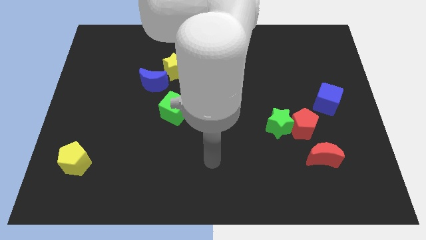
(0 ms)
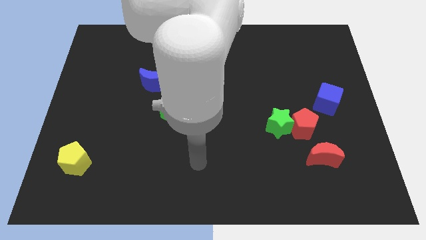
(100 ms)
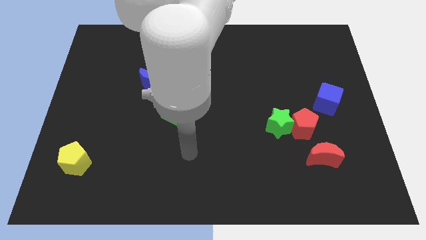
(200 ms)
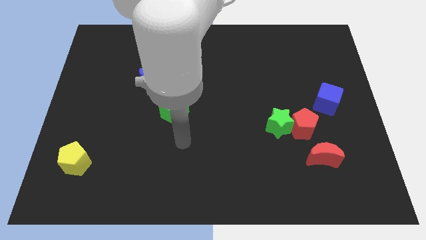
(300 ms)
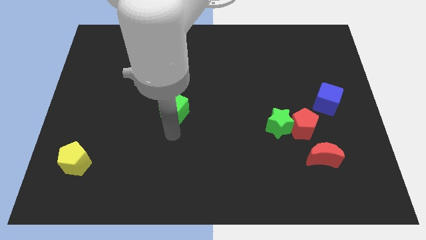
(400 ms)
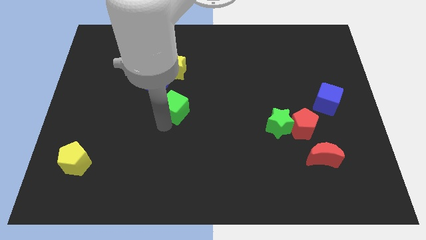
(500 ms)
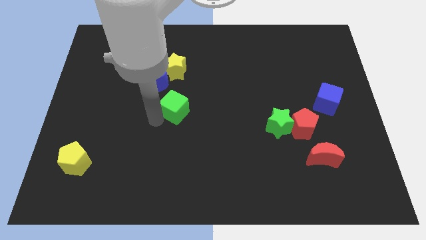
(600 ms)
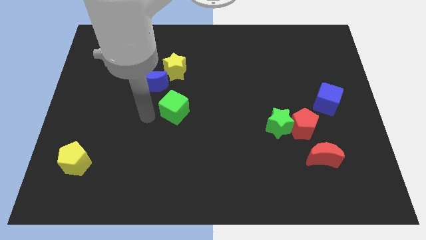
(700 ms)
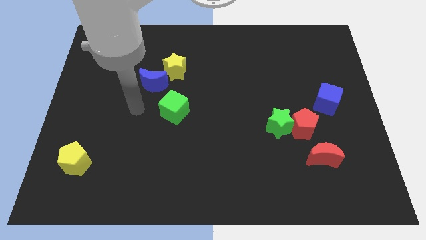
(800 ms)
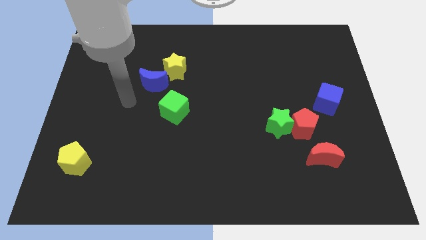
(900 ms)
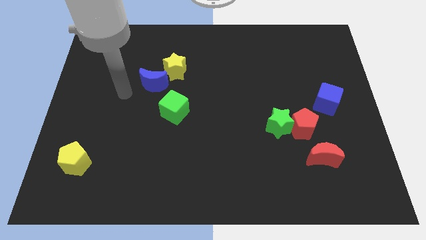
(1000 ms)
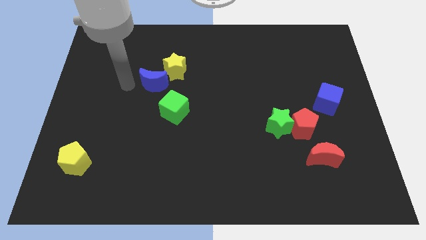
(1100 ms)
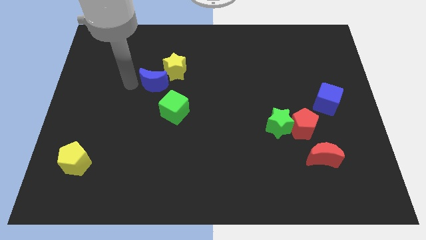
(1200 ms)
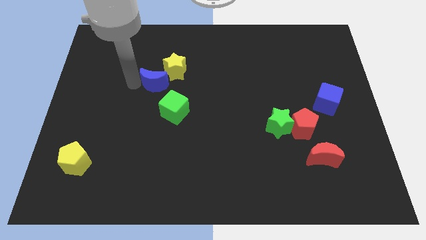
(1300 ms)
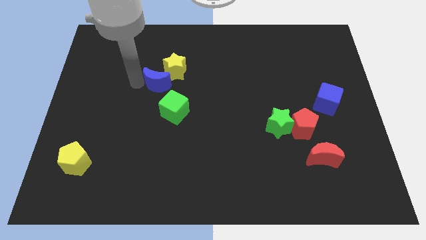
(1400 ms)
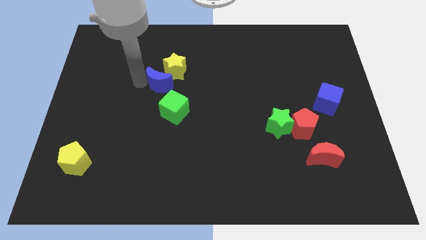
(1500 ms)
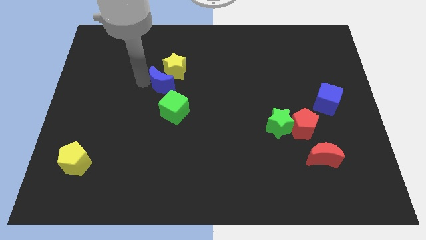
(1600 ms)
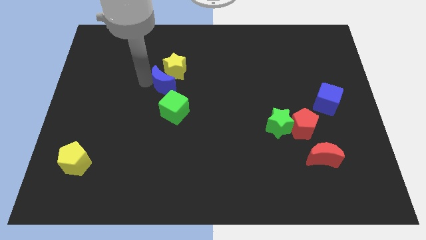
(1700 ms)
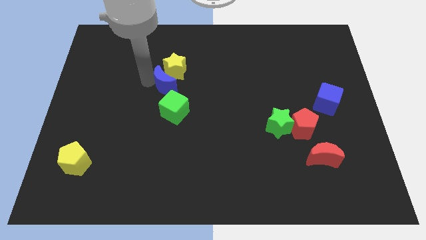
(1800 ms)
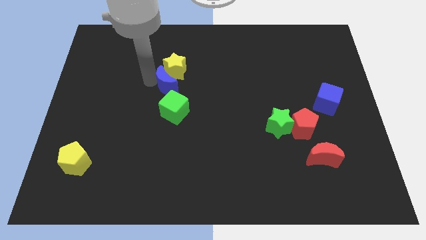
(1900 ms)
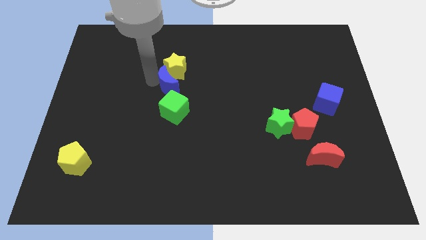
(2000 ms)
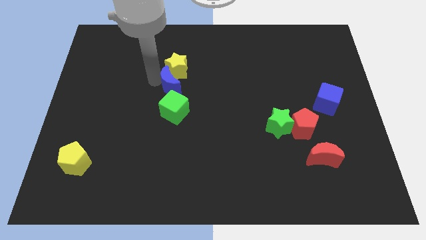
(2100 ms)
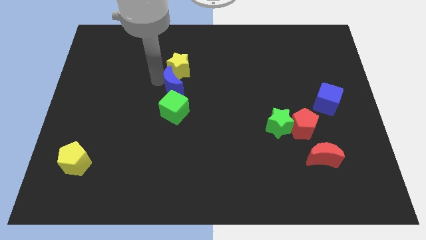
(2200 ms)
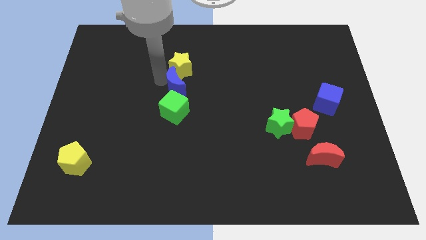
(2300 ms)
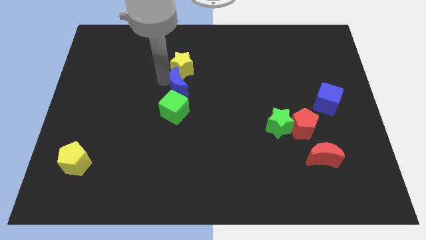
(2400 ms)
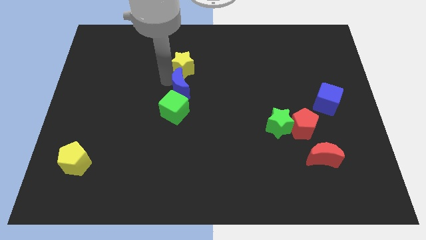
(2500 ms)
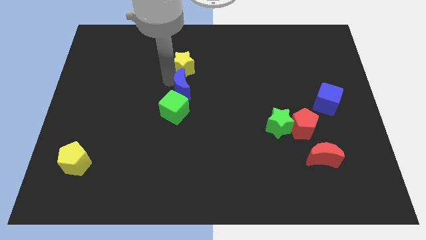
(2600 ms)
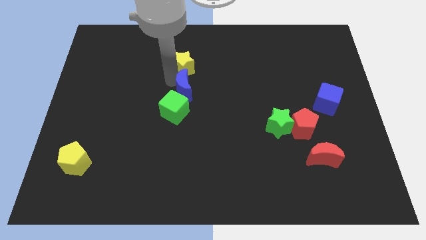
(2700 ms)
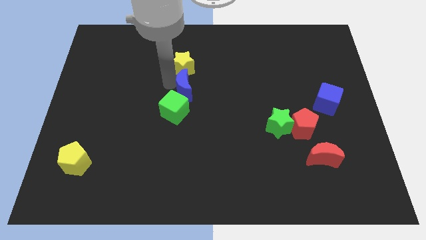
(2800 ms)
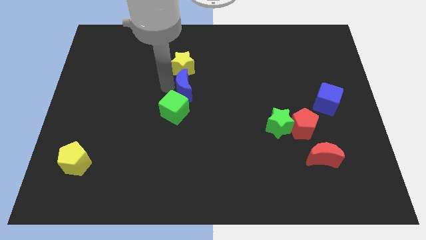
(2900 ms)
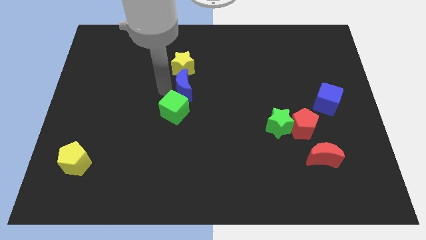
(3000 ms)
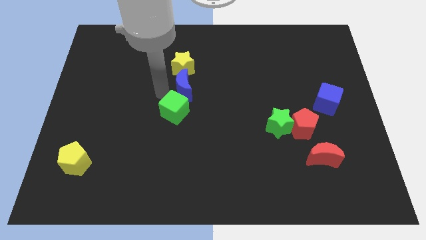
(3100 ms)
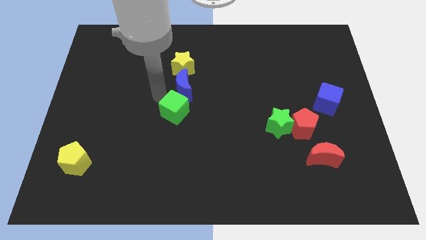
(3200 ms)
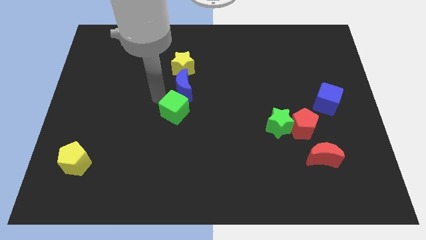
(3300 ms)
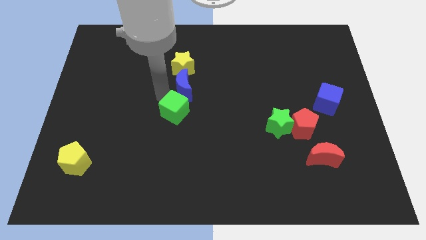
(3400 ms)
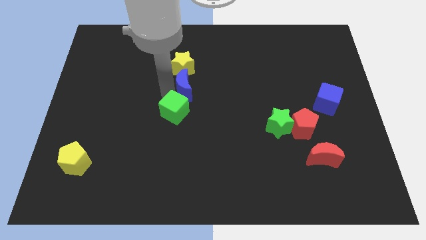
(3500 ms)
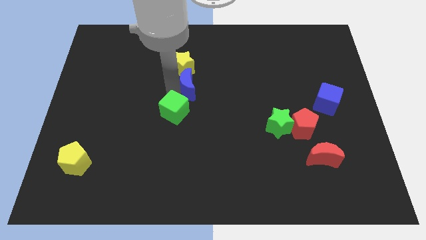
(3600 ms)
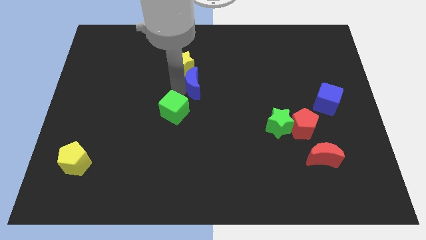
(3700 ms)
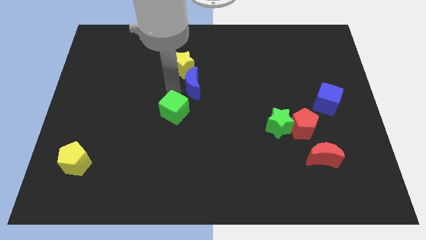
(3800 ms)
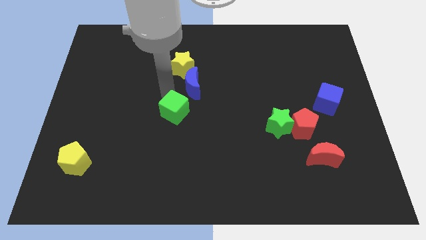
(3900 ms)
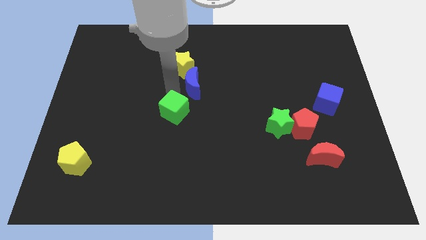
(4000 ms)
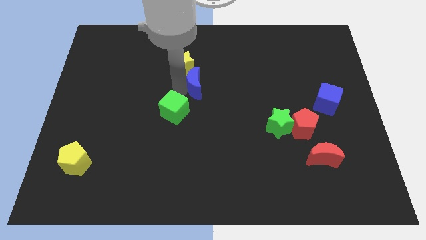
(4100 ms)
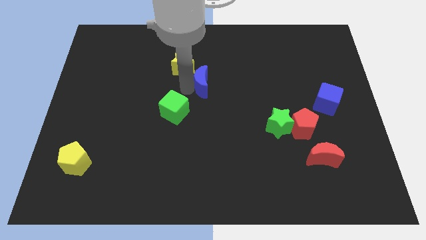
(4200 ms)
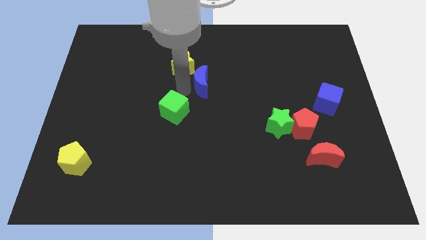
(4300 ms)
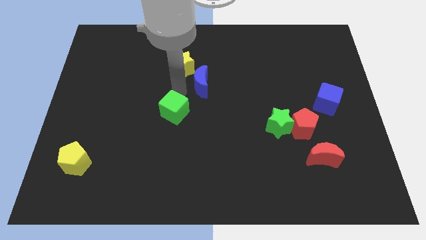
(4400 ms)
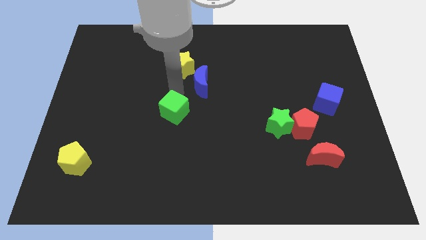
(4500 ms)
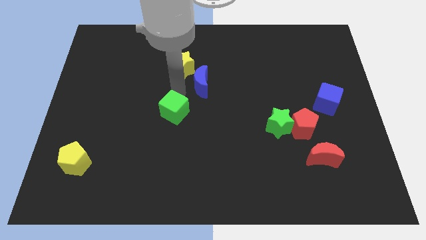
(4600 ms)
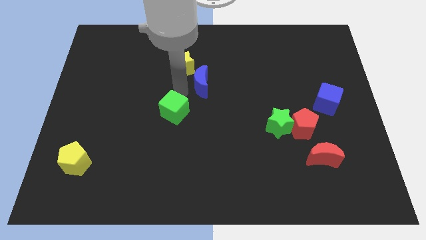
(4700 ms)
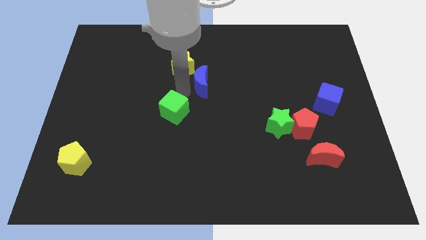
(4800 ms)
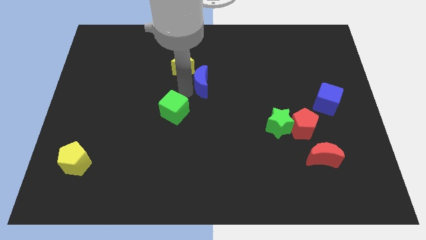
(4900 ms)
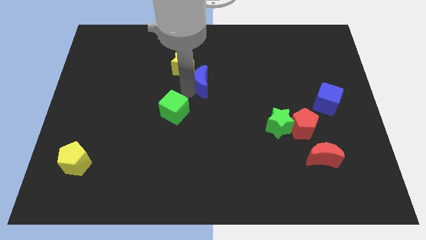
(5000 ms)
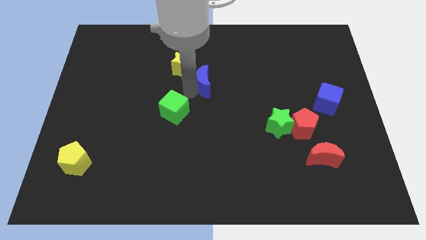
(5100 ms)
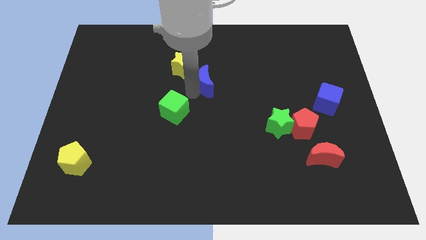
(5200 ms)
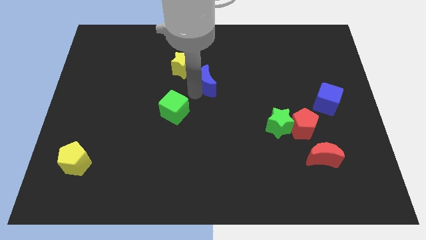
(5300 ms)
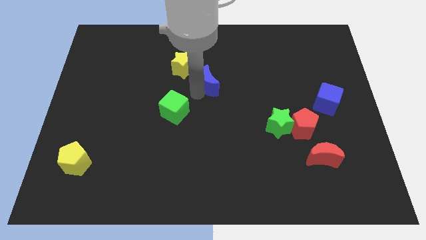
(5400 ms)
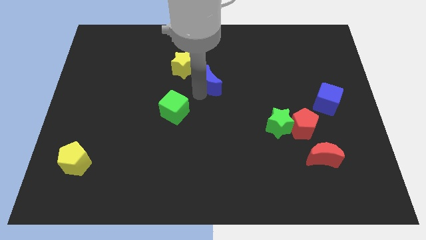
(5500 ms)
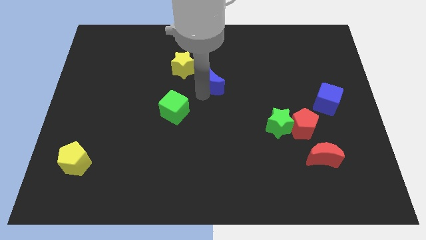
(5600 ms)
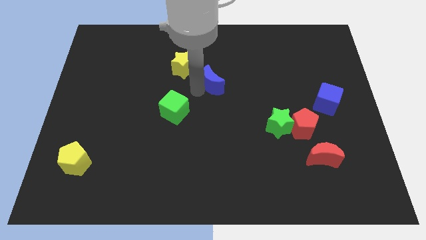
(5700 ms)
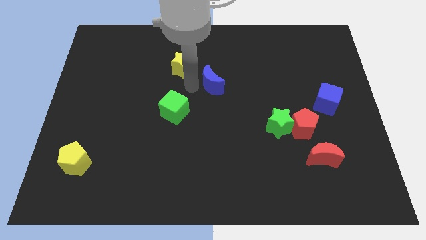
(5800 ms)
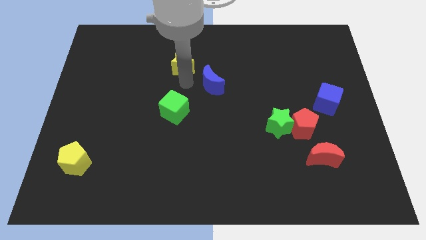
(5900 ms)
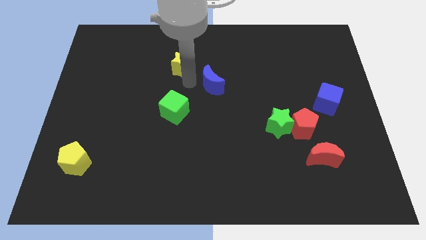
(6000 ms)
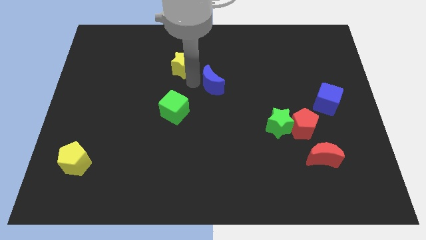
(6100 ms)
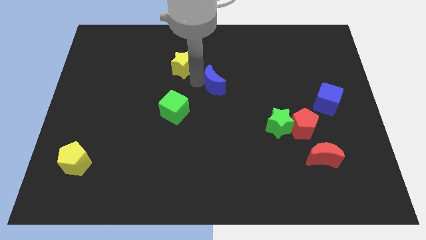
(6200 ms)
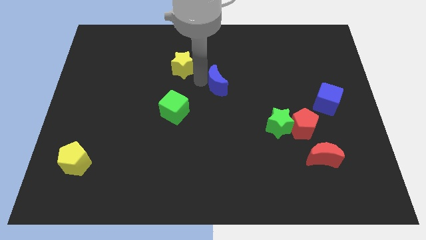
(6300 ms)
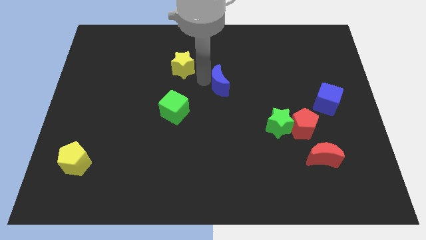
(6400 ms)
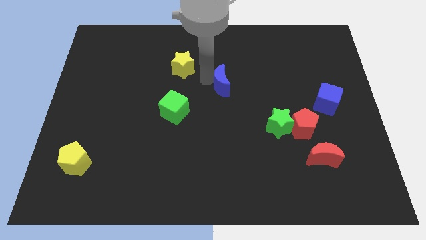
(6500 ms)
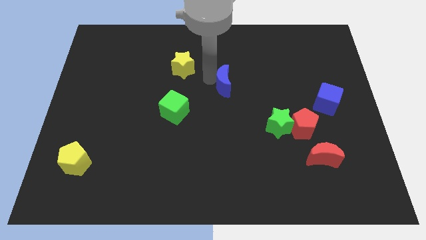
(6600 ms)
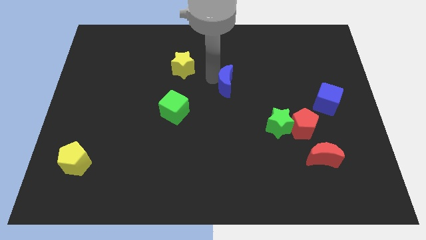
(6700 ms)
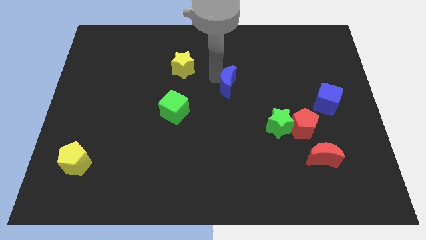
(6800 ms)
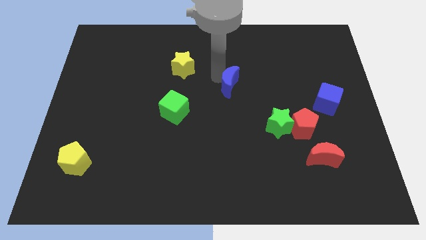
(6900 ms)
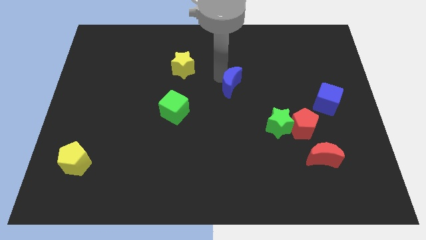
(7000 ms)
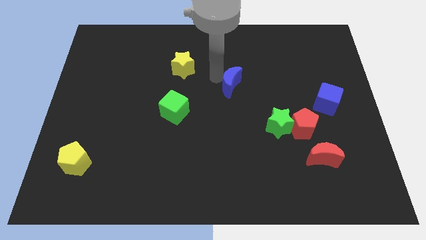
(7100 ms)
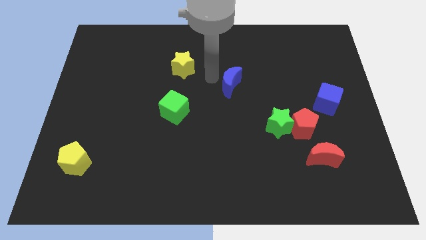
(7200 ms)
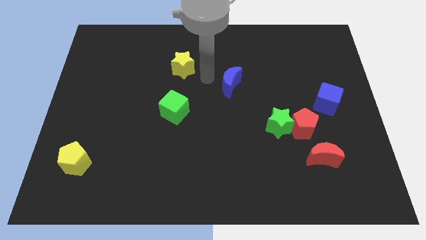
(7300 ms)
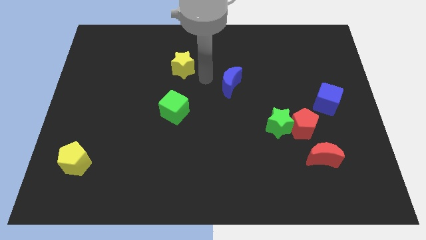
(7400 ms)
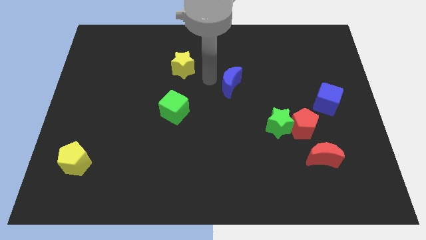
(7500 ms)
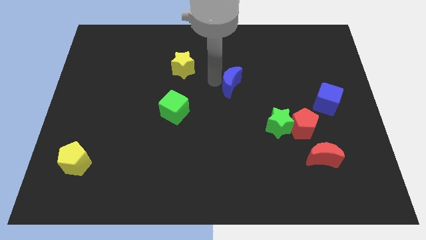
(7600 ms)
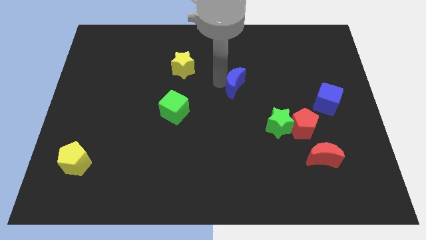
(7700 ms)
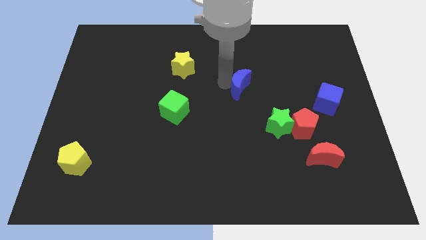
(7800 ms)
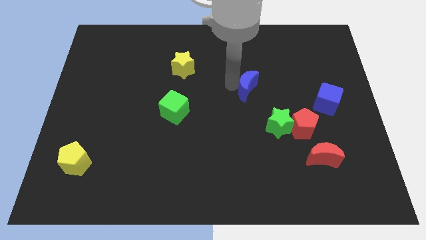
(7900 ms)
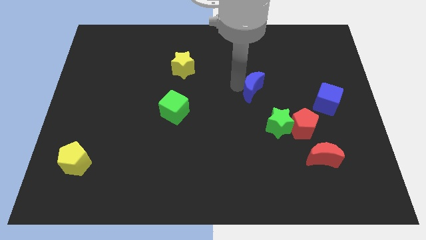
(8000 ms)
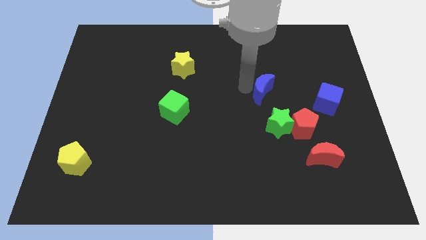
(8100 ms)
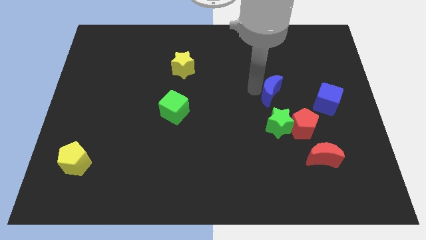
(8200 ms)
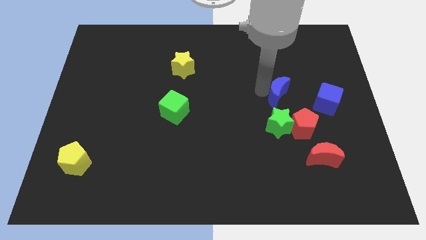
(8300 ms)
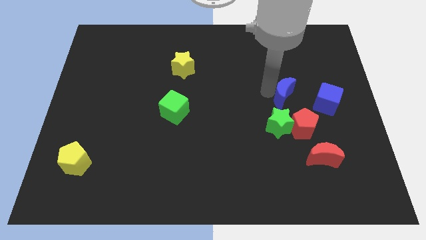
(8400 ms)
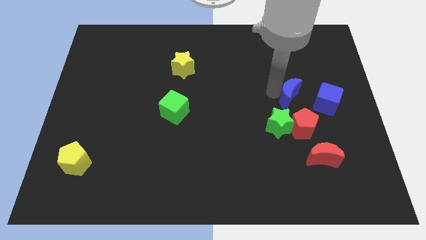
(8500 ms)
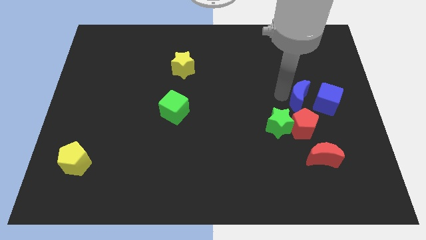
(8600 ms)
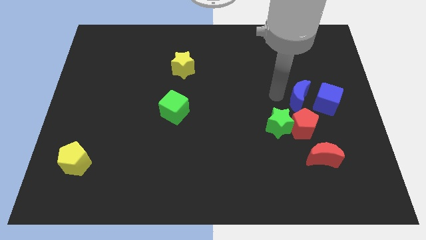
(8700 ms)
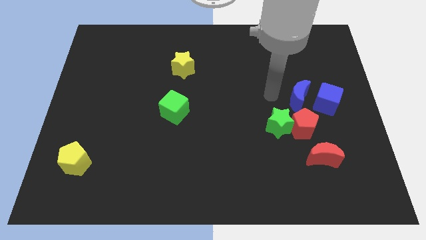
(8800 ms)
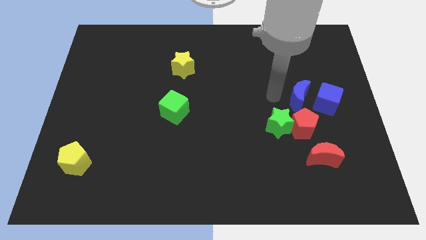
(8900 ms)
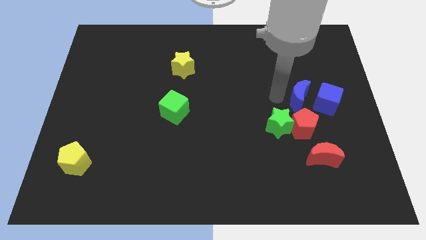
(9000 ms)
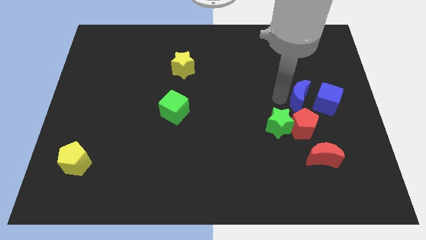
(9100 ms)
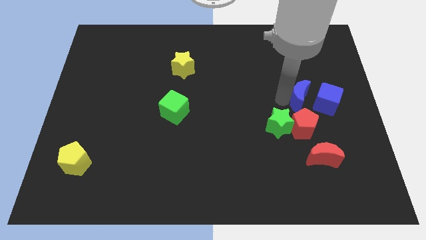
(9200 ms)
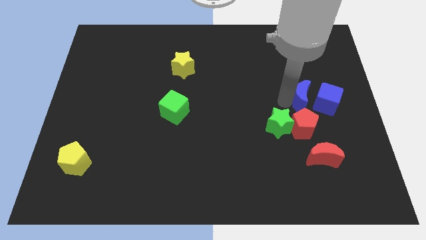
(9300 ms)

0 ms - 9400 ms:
move the blue moon next to the blue cube
